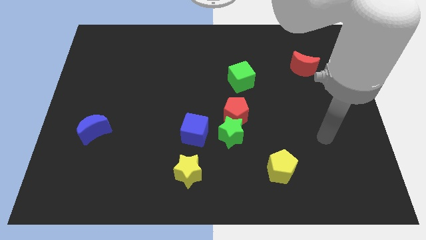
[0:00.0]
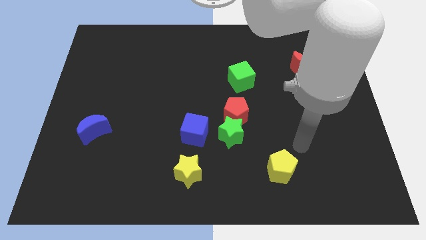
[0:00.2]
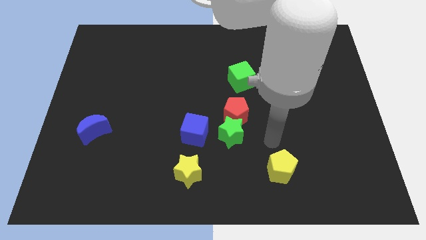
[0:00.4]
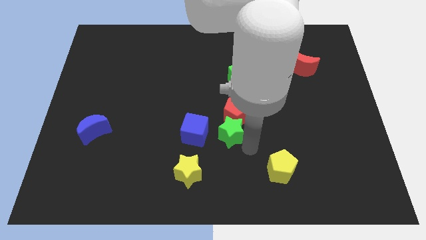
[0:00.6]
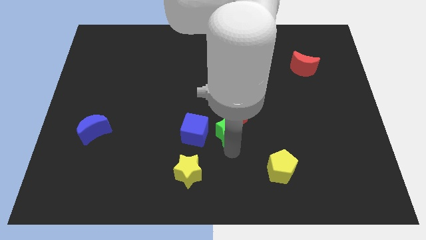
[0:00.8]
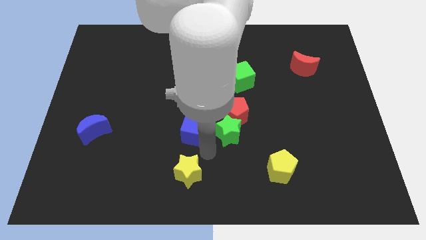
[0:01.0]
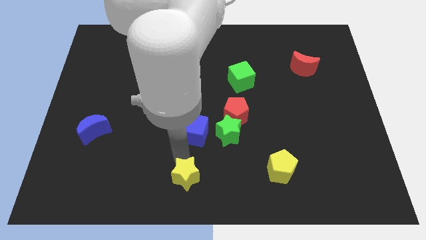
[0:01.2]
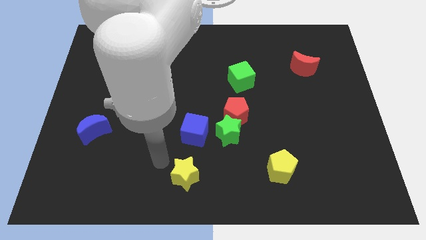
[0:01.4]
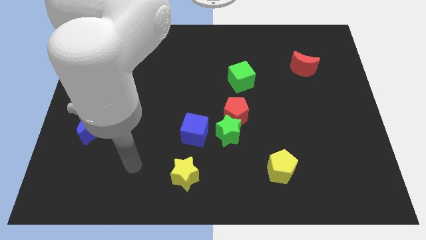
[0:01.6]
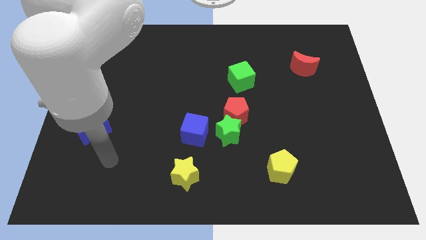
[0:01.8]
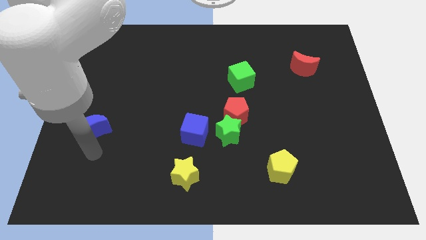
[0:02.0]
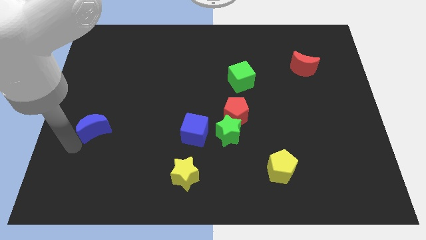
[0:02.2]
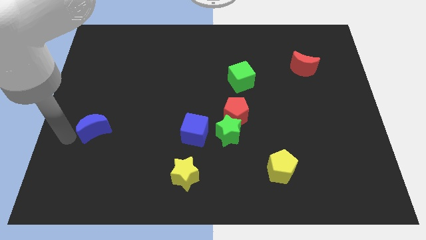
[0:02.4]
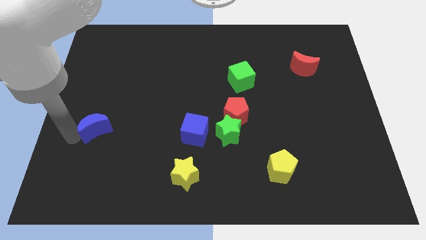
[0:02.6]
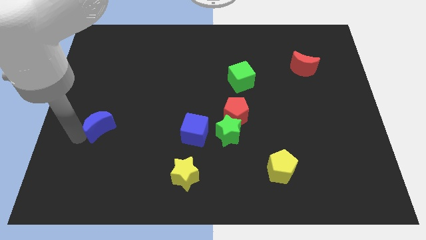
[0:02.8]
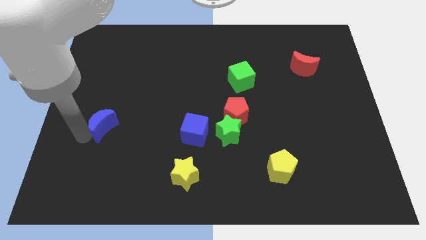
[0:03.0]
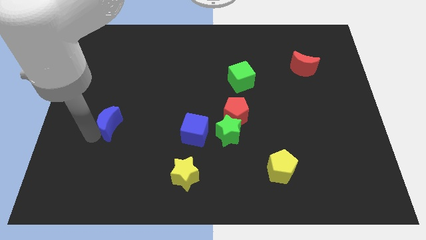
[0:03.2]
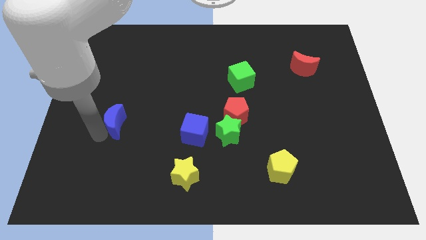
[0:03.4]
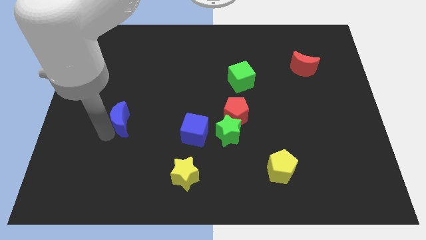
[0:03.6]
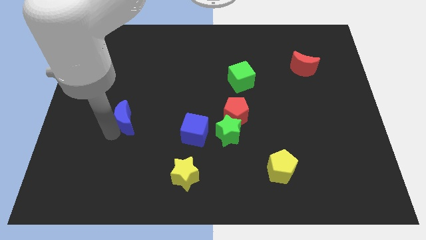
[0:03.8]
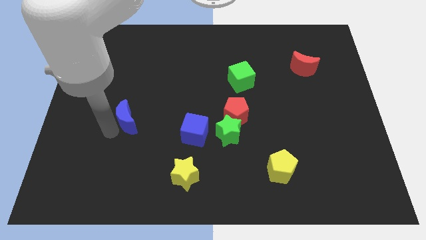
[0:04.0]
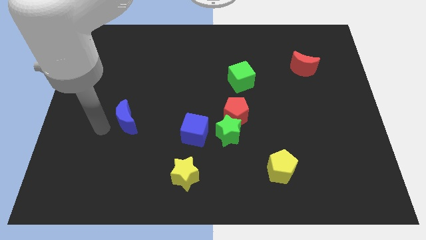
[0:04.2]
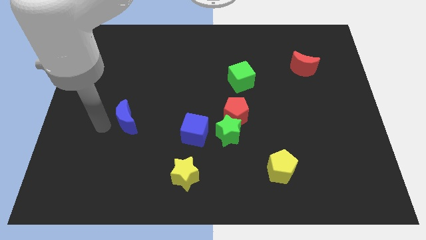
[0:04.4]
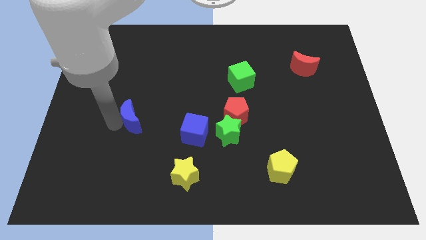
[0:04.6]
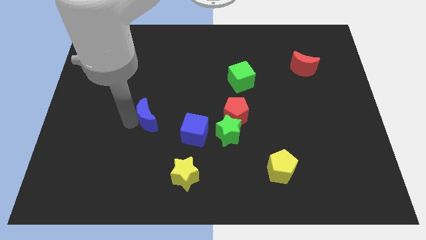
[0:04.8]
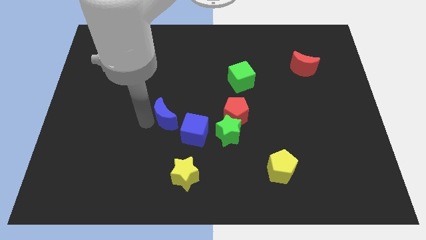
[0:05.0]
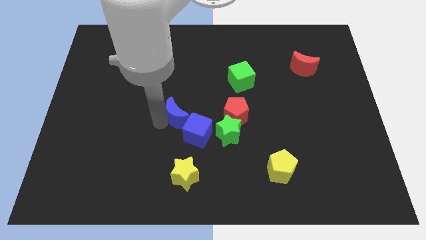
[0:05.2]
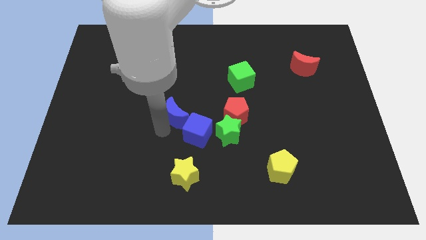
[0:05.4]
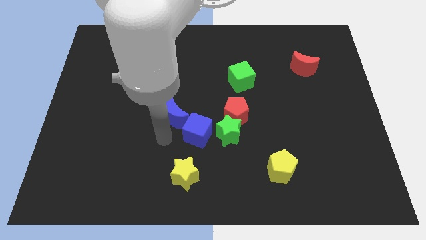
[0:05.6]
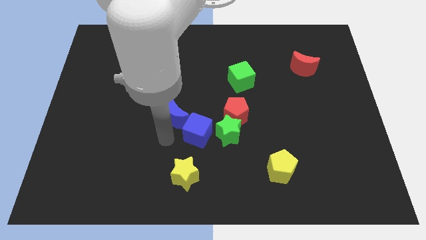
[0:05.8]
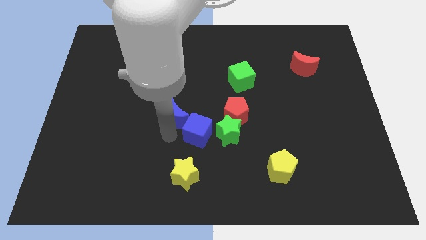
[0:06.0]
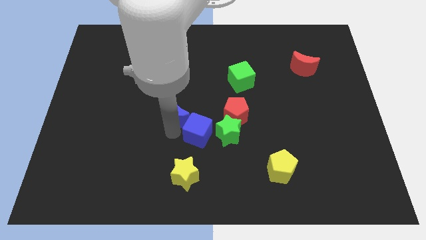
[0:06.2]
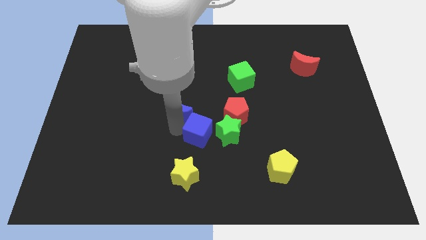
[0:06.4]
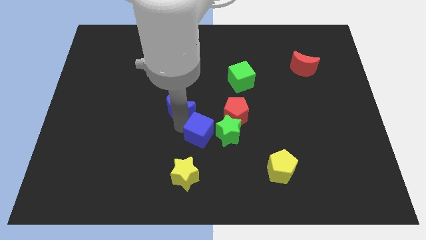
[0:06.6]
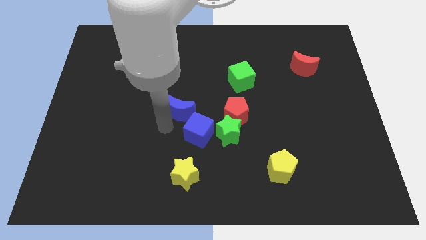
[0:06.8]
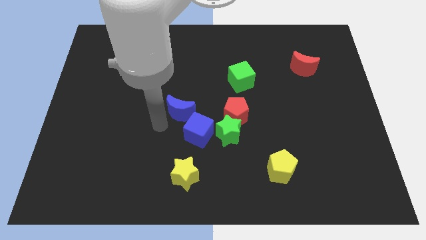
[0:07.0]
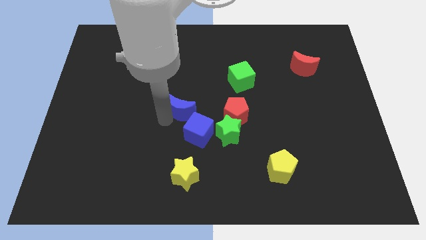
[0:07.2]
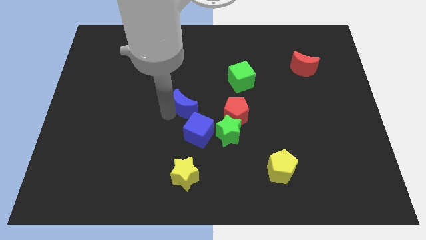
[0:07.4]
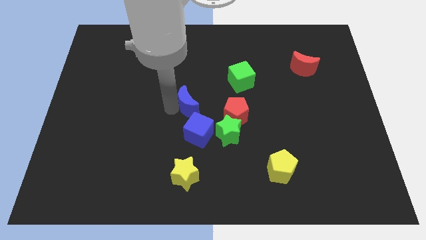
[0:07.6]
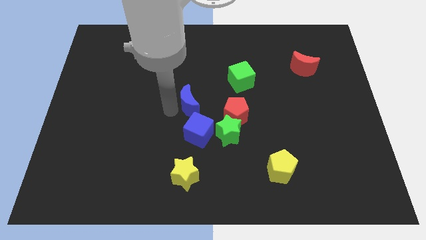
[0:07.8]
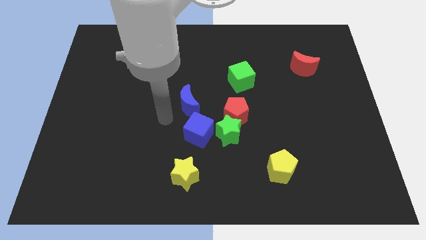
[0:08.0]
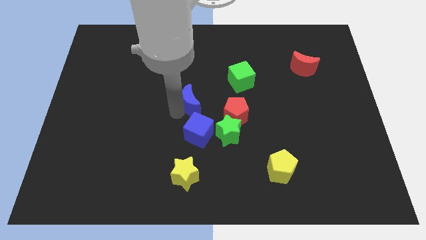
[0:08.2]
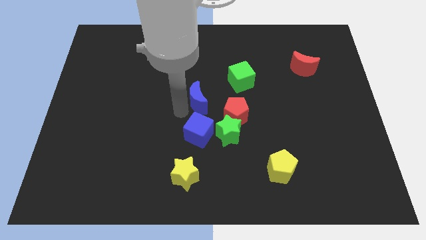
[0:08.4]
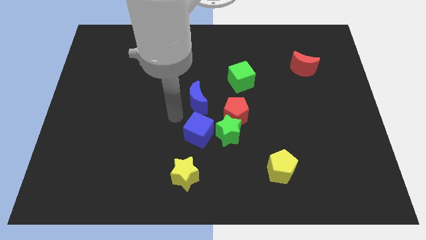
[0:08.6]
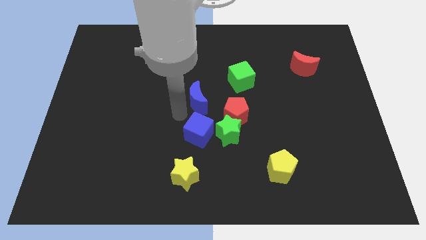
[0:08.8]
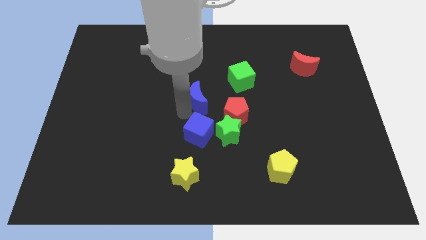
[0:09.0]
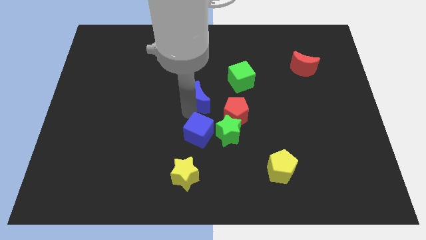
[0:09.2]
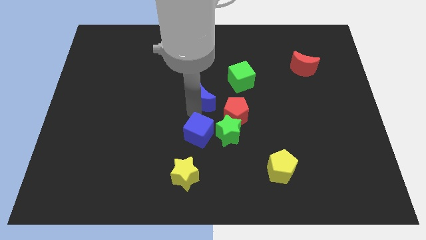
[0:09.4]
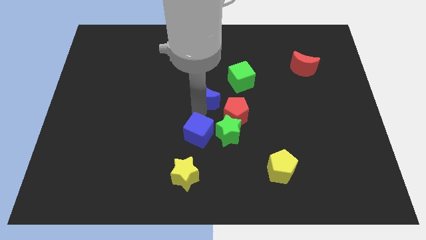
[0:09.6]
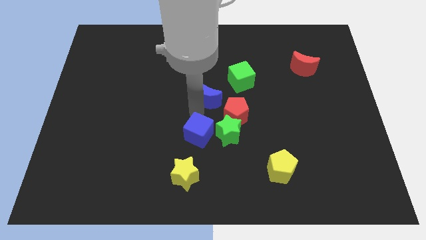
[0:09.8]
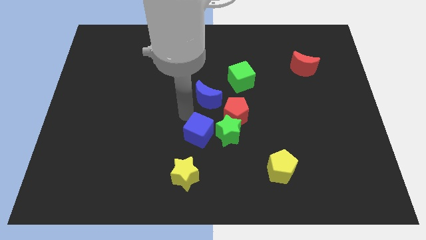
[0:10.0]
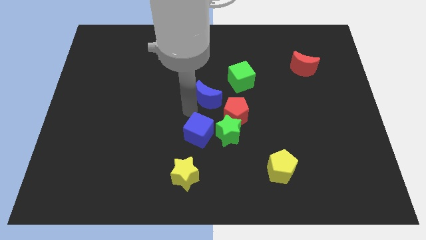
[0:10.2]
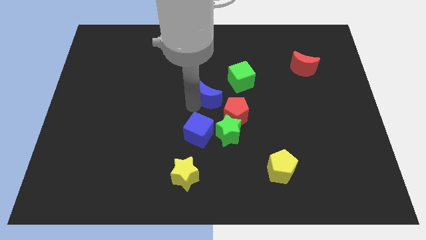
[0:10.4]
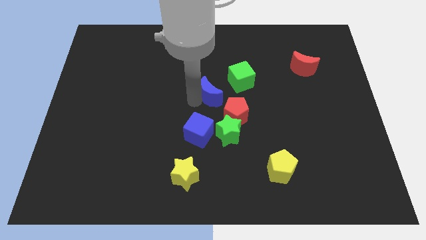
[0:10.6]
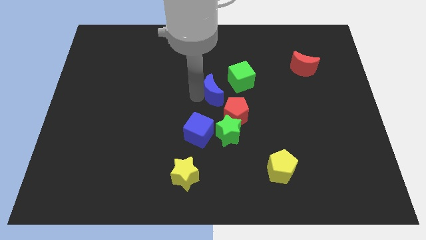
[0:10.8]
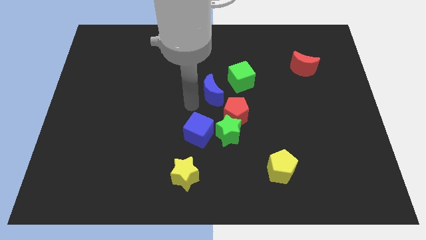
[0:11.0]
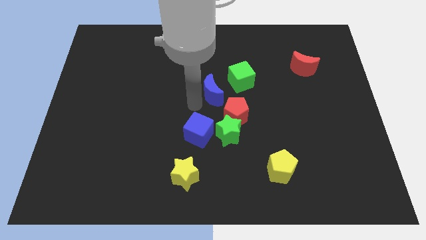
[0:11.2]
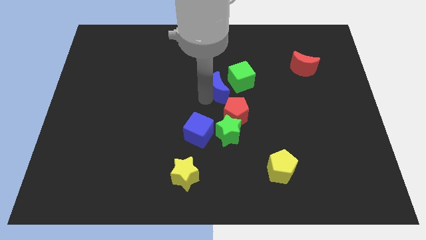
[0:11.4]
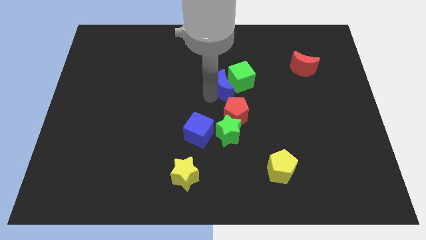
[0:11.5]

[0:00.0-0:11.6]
slide the blue moon close to the green cube

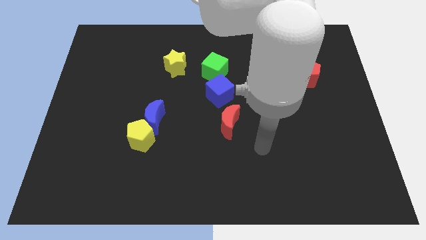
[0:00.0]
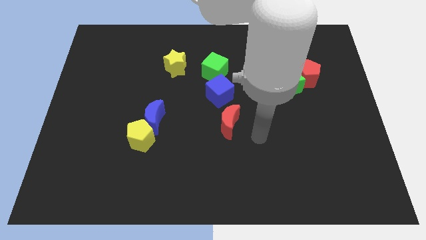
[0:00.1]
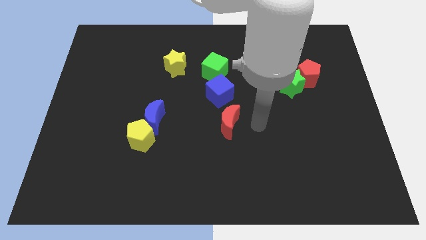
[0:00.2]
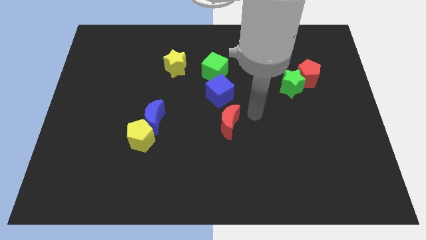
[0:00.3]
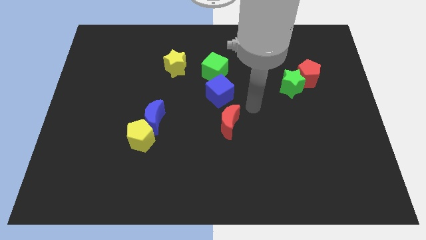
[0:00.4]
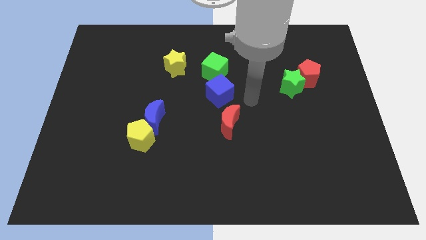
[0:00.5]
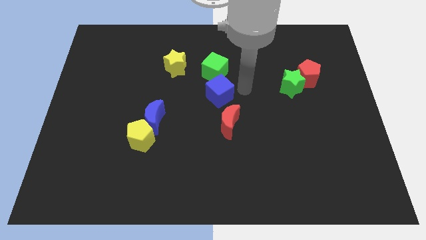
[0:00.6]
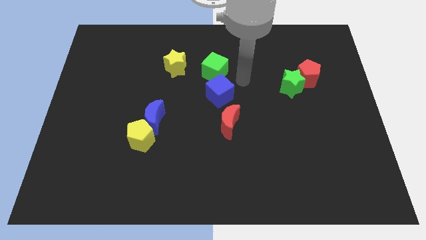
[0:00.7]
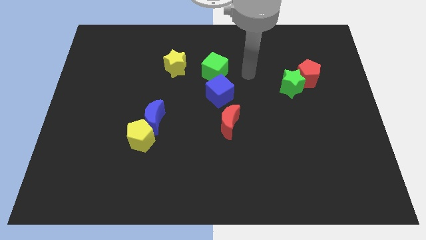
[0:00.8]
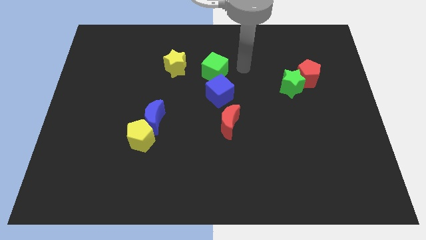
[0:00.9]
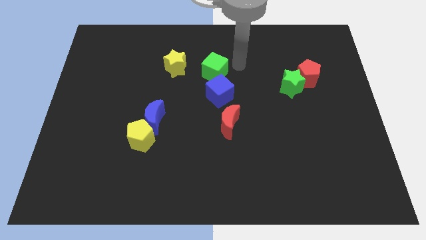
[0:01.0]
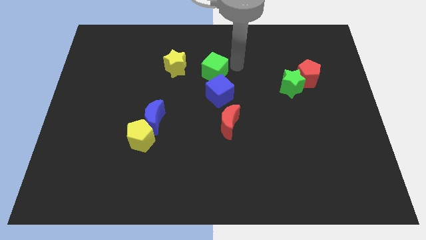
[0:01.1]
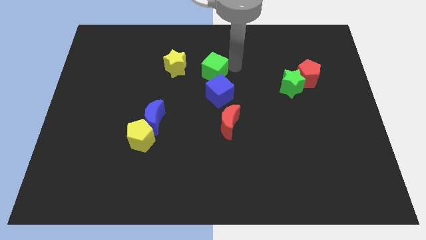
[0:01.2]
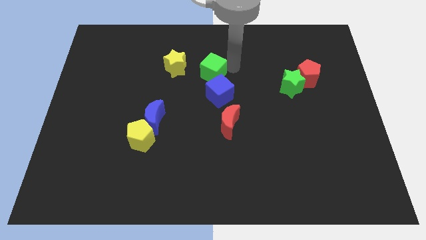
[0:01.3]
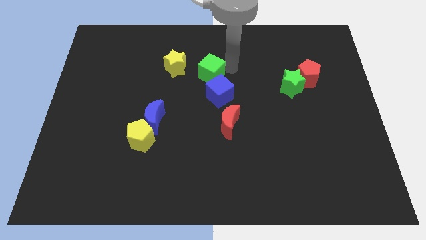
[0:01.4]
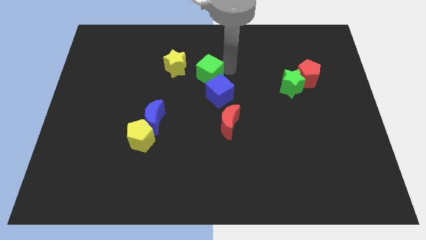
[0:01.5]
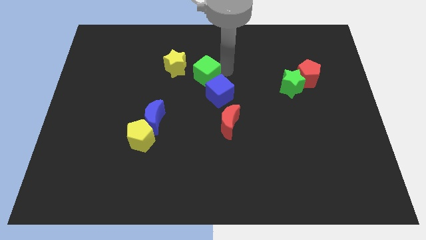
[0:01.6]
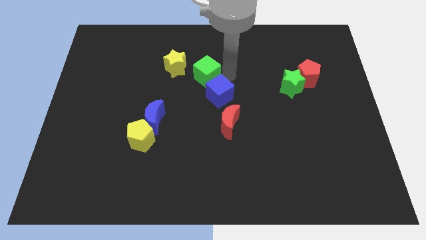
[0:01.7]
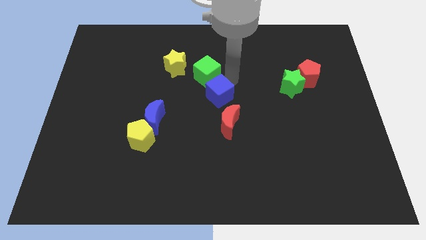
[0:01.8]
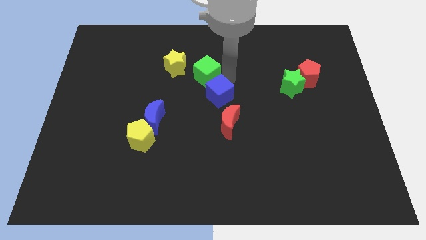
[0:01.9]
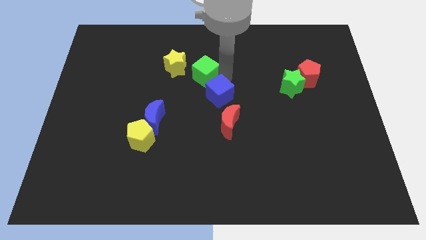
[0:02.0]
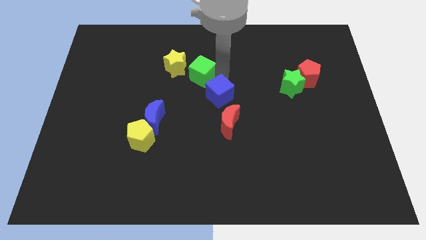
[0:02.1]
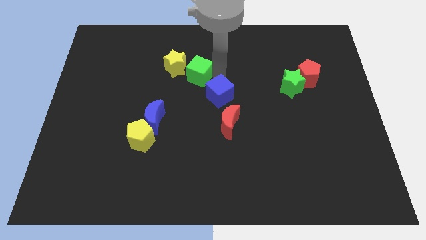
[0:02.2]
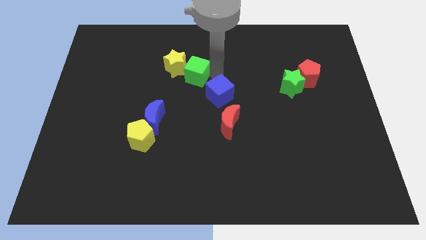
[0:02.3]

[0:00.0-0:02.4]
put the green cube to the yellow star
